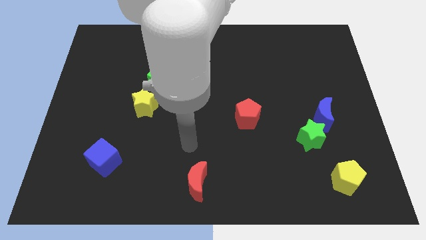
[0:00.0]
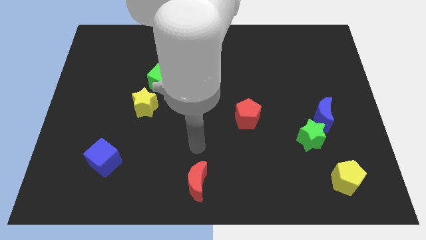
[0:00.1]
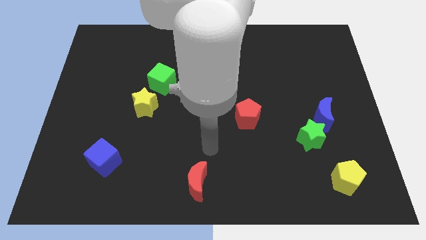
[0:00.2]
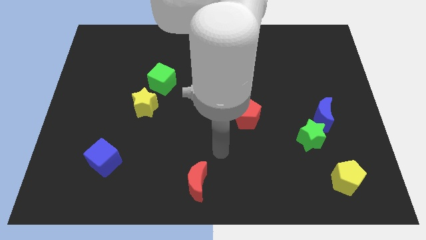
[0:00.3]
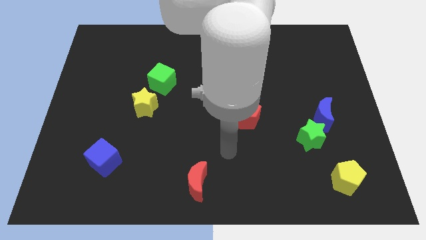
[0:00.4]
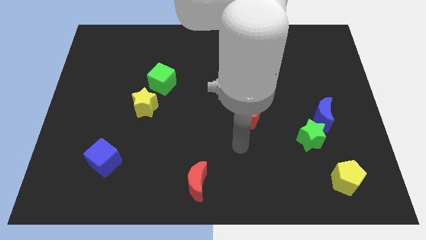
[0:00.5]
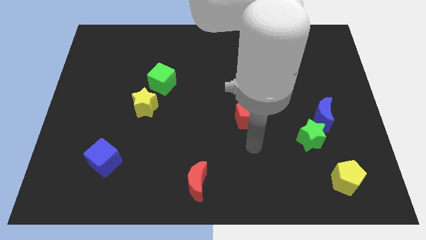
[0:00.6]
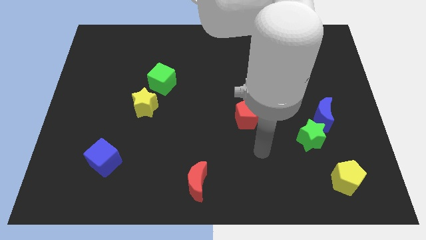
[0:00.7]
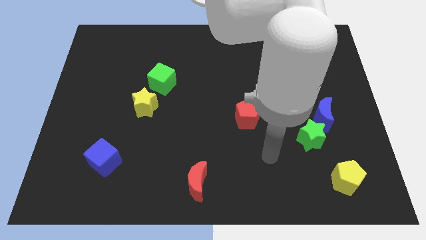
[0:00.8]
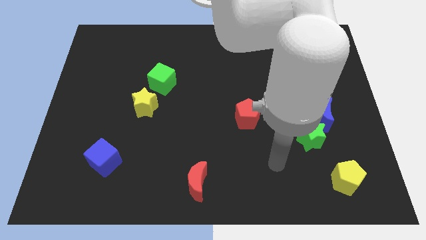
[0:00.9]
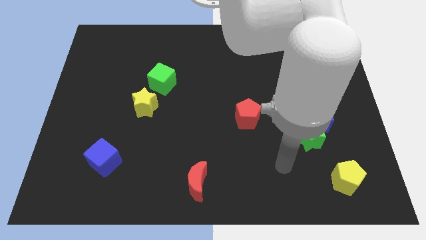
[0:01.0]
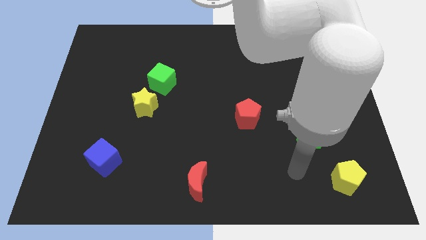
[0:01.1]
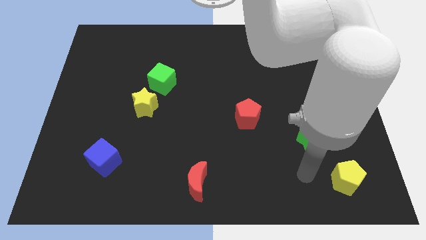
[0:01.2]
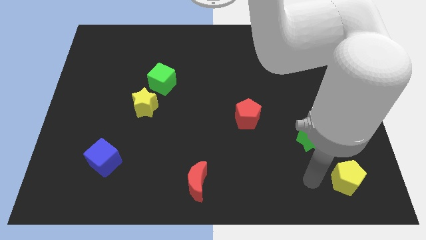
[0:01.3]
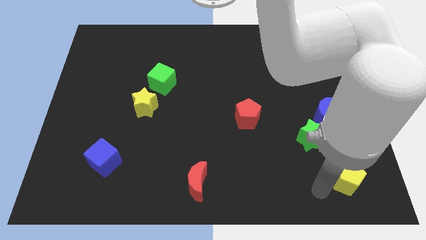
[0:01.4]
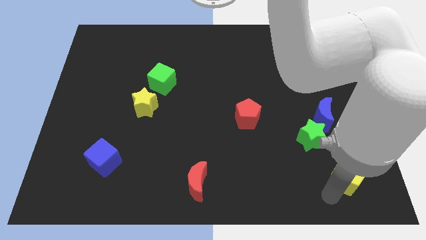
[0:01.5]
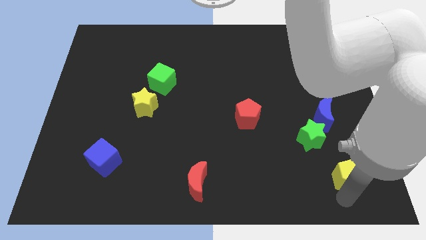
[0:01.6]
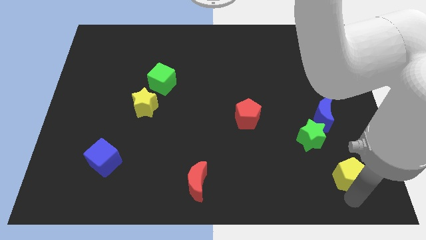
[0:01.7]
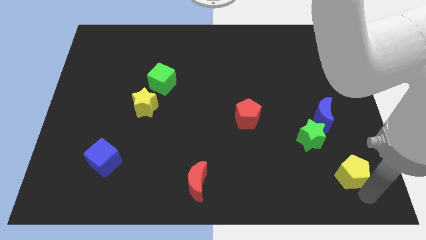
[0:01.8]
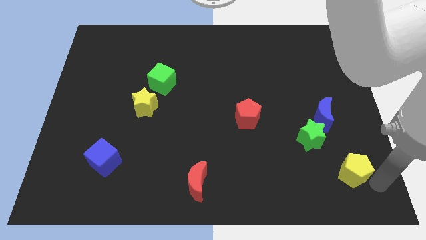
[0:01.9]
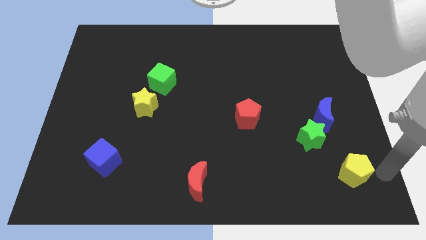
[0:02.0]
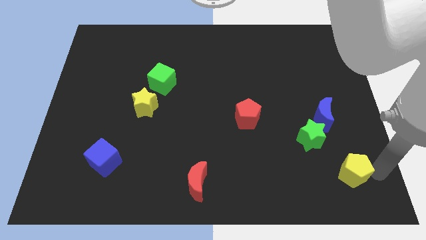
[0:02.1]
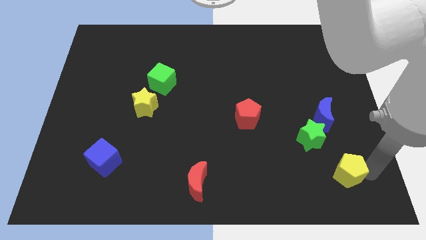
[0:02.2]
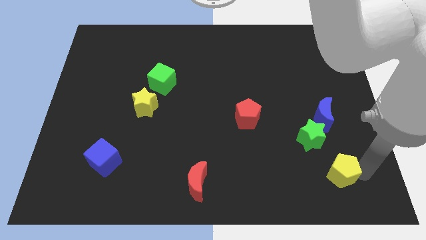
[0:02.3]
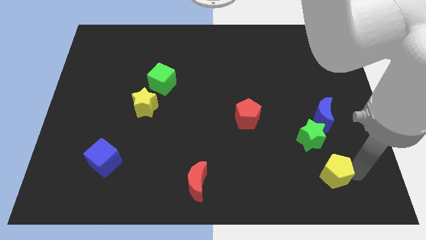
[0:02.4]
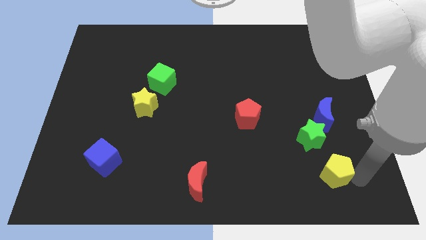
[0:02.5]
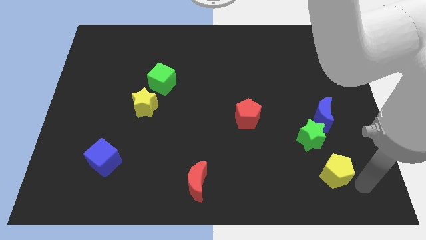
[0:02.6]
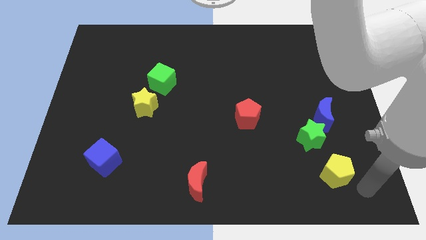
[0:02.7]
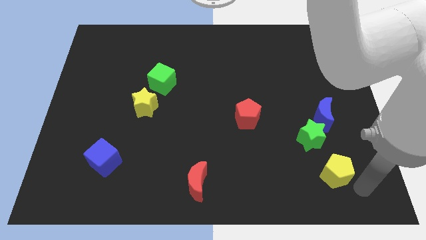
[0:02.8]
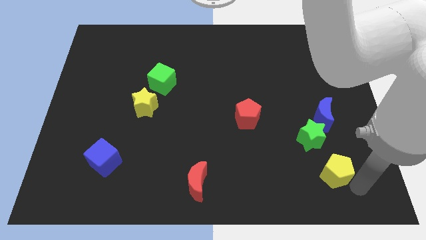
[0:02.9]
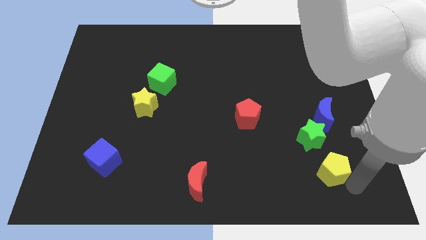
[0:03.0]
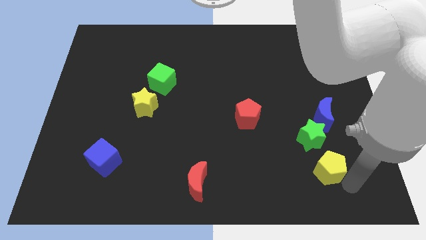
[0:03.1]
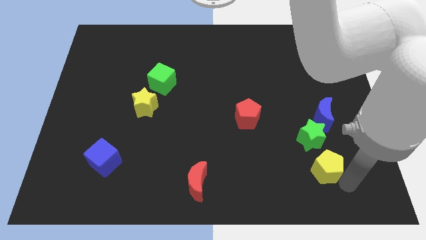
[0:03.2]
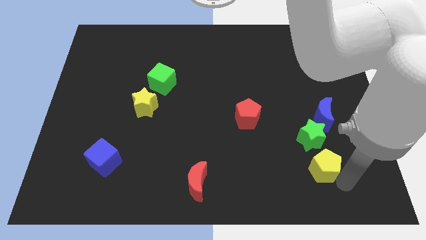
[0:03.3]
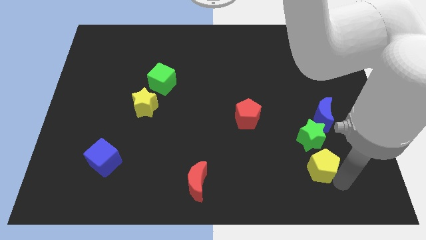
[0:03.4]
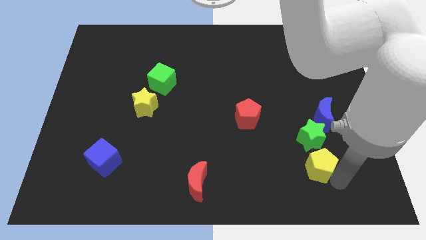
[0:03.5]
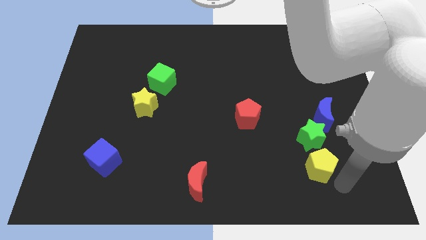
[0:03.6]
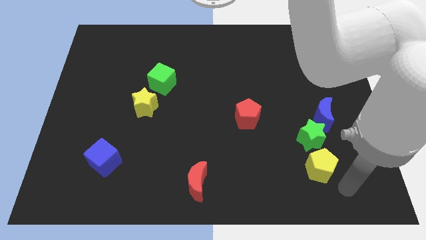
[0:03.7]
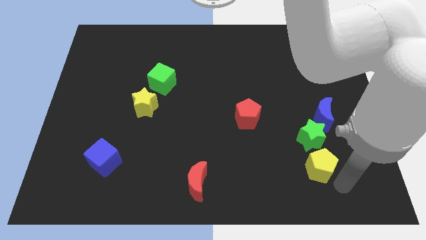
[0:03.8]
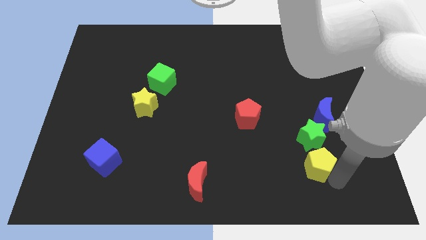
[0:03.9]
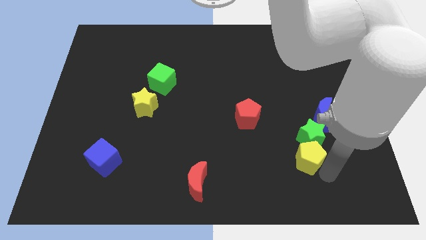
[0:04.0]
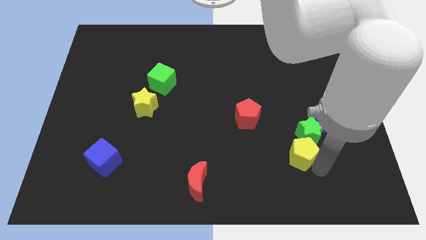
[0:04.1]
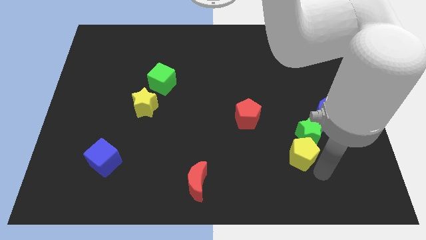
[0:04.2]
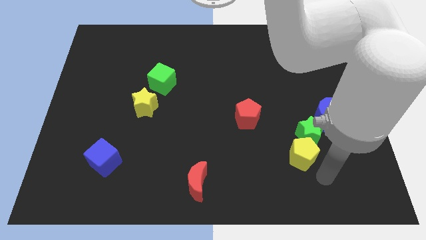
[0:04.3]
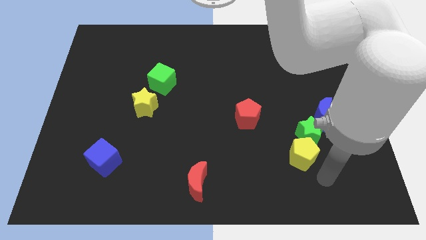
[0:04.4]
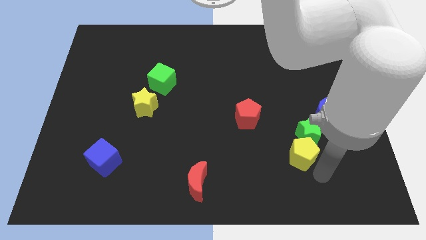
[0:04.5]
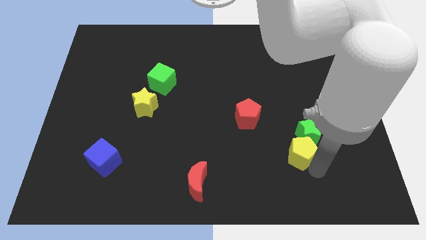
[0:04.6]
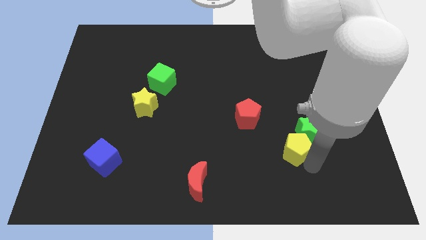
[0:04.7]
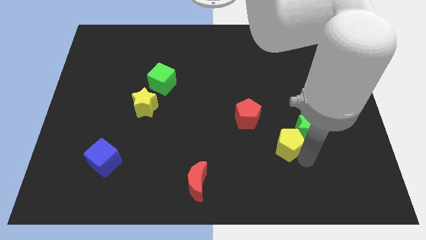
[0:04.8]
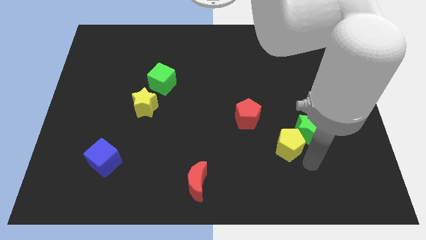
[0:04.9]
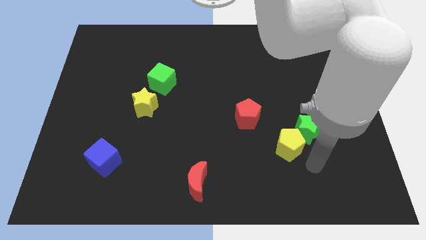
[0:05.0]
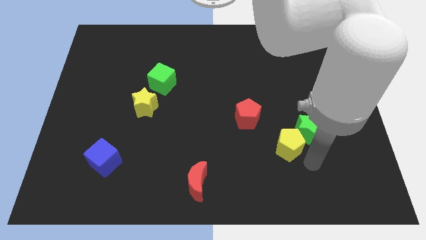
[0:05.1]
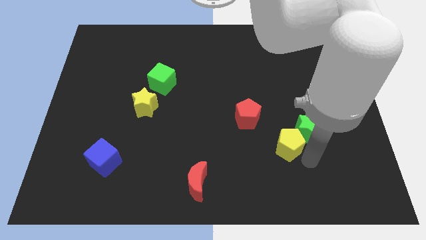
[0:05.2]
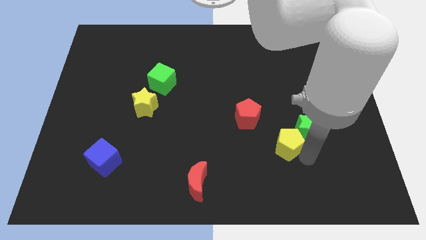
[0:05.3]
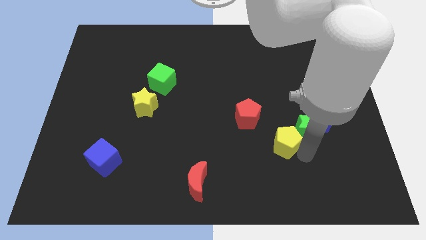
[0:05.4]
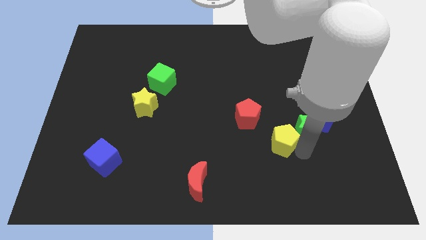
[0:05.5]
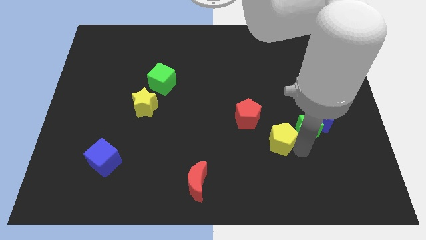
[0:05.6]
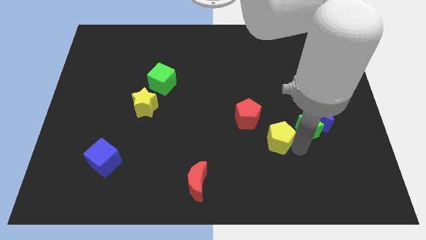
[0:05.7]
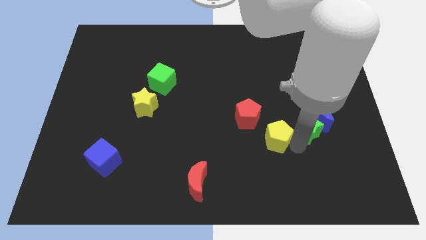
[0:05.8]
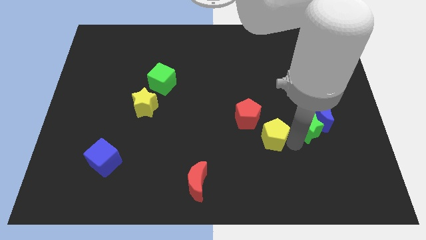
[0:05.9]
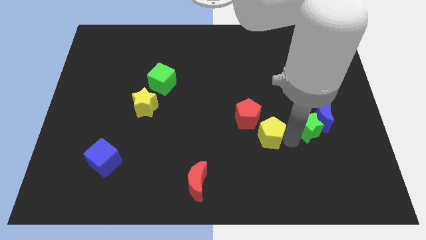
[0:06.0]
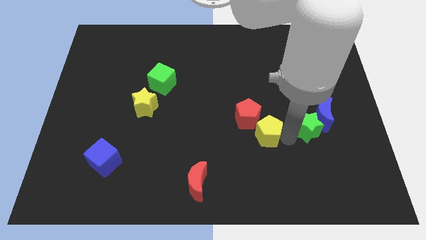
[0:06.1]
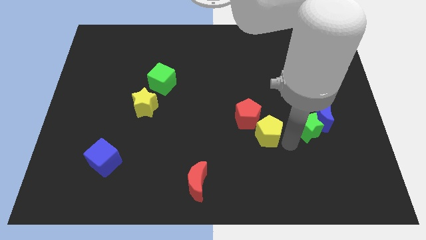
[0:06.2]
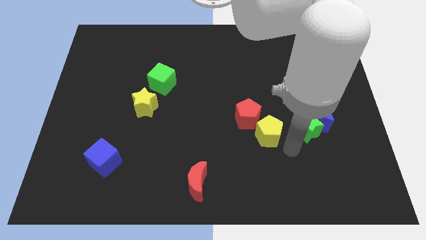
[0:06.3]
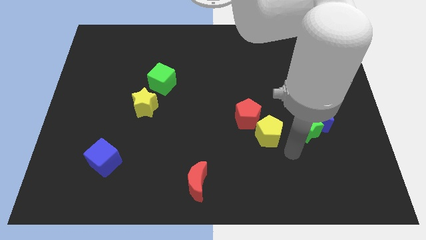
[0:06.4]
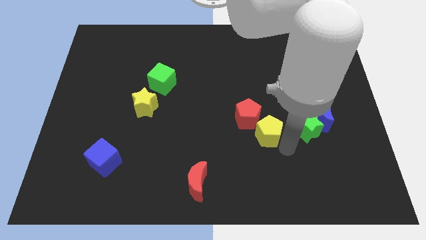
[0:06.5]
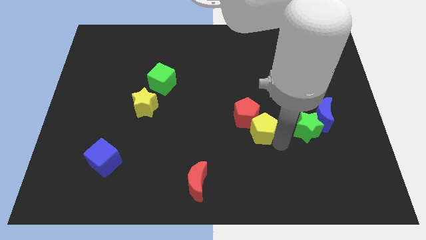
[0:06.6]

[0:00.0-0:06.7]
push the yellow pentagon close to the red pentagon

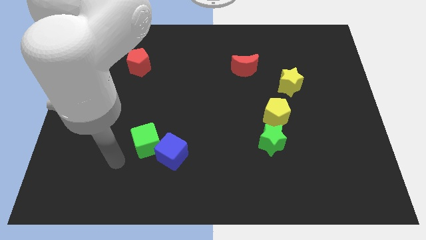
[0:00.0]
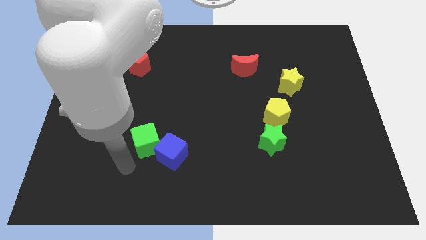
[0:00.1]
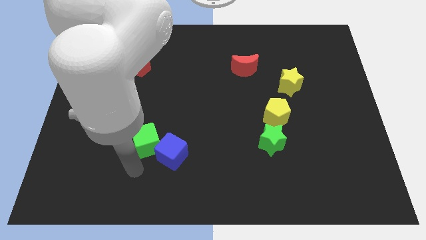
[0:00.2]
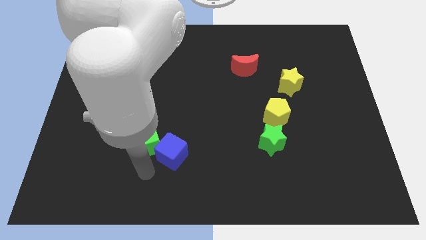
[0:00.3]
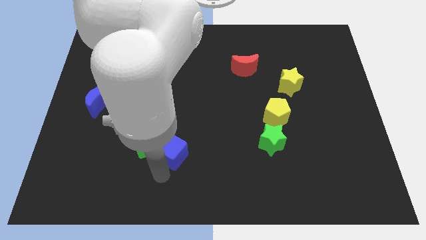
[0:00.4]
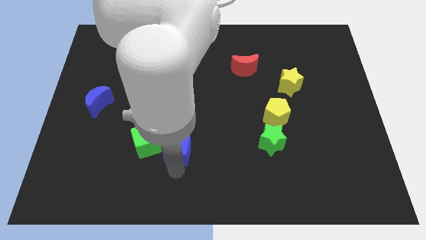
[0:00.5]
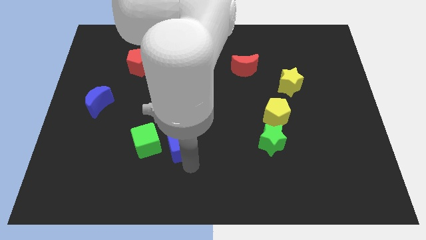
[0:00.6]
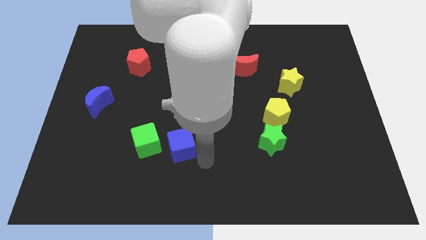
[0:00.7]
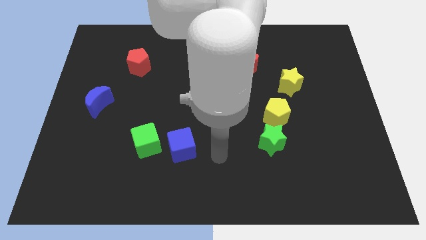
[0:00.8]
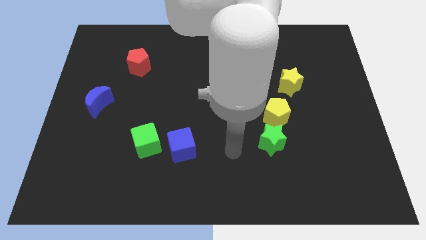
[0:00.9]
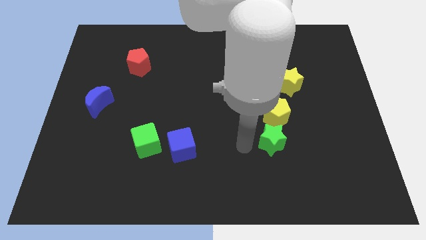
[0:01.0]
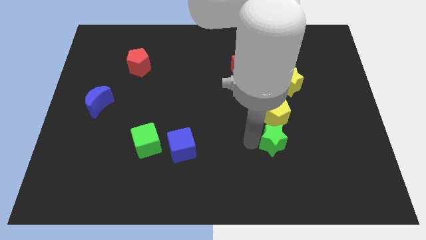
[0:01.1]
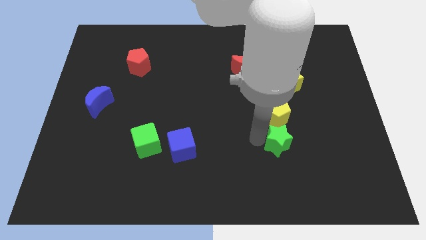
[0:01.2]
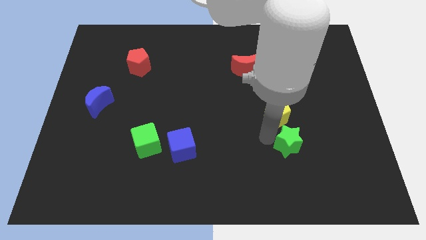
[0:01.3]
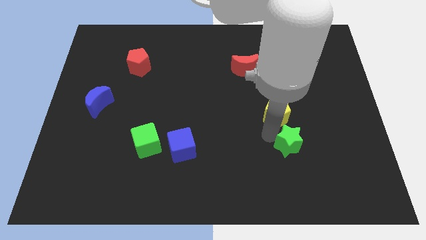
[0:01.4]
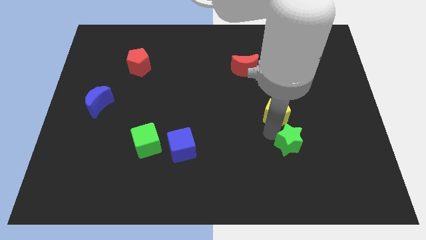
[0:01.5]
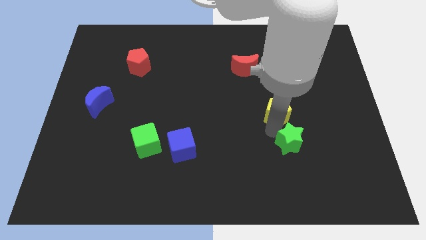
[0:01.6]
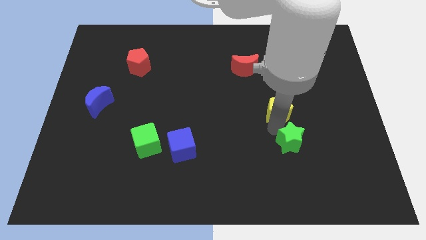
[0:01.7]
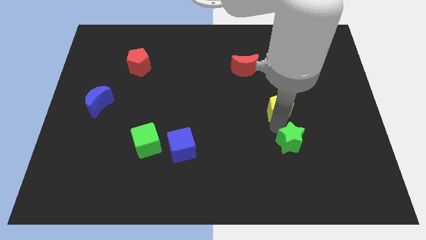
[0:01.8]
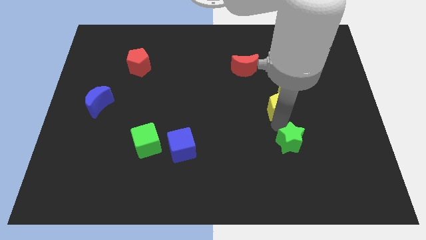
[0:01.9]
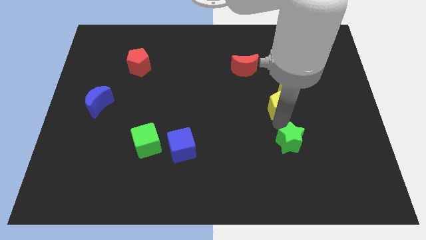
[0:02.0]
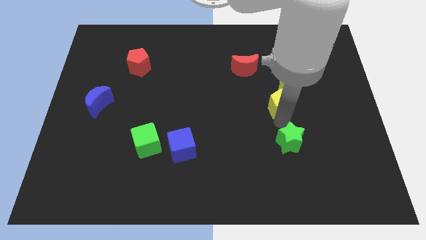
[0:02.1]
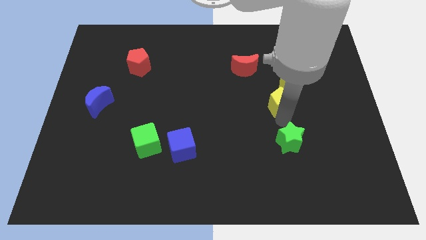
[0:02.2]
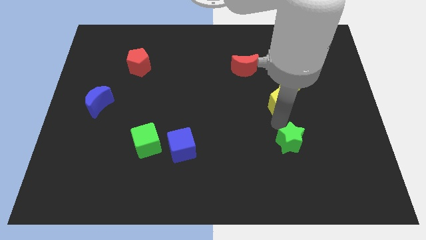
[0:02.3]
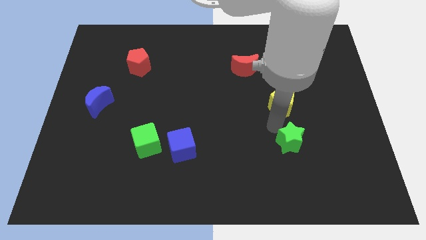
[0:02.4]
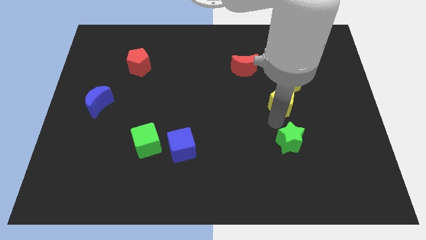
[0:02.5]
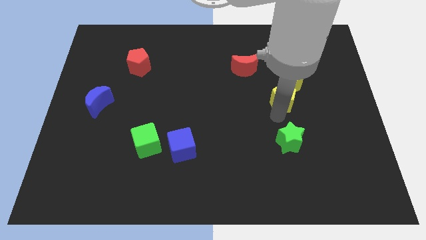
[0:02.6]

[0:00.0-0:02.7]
slide the yellow pentagon towards the yellow star
